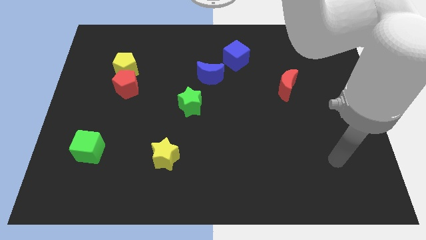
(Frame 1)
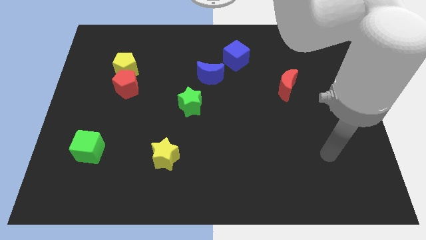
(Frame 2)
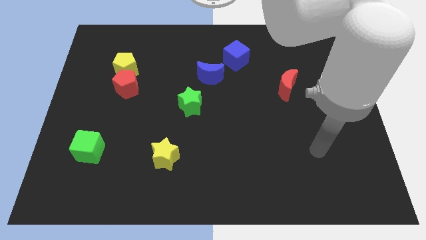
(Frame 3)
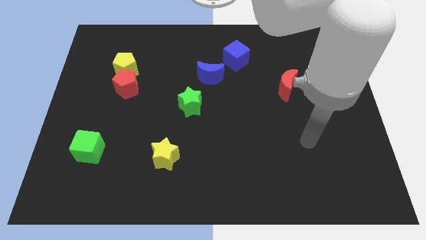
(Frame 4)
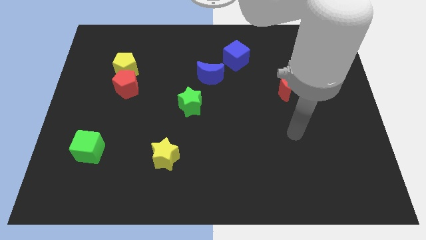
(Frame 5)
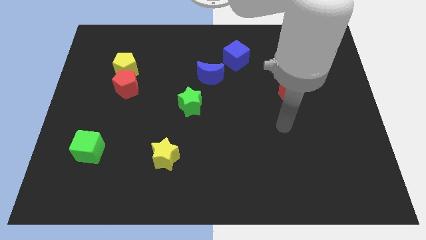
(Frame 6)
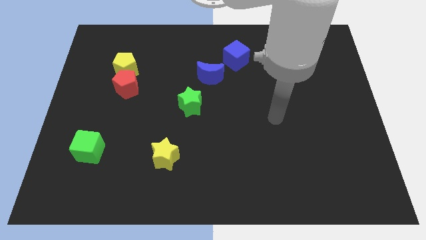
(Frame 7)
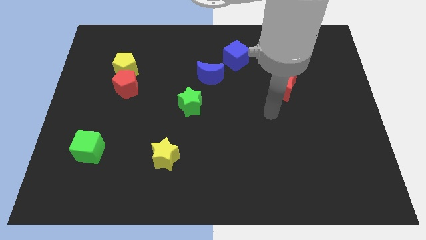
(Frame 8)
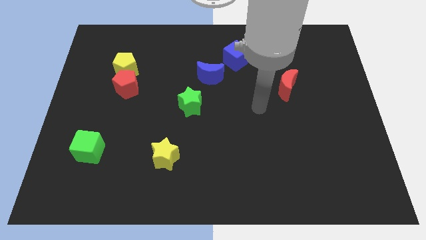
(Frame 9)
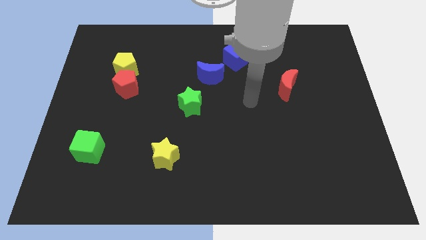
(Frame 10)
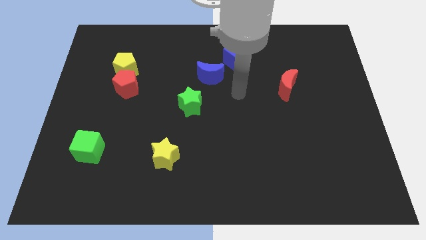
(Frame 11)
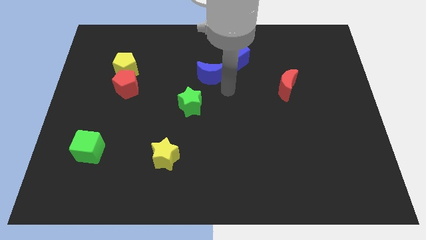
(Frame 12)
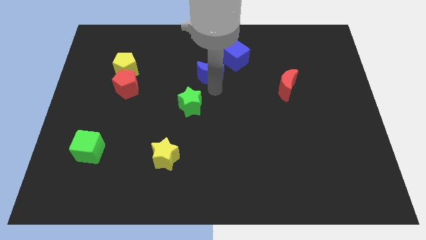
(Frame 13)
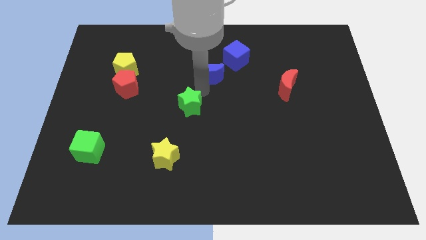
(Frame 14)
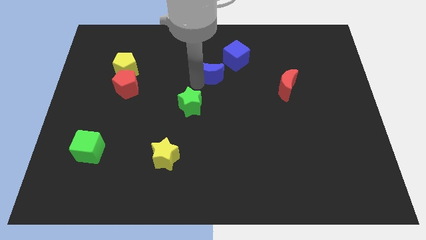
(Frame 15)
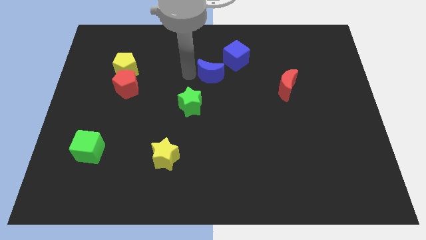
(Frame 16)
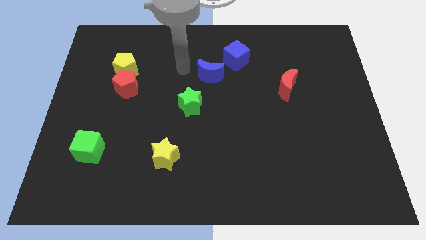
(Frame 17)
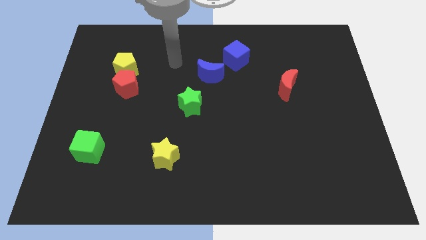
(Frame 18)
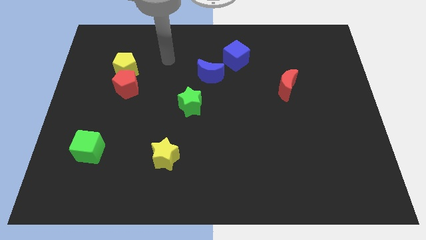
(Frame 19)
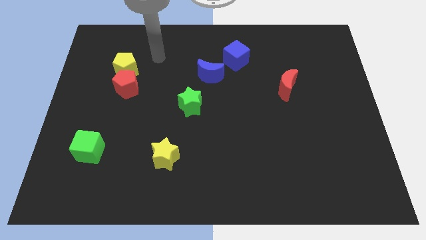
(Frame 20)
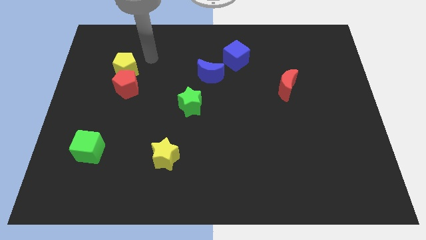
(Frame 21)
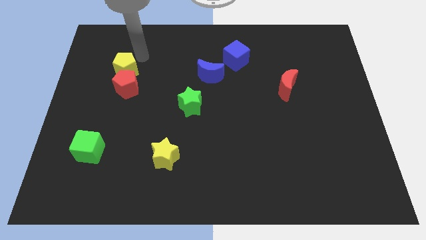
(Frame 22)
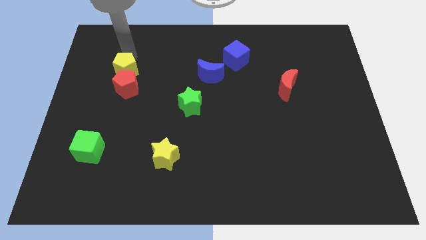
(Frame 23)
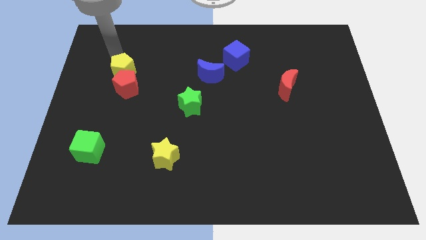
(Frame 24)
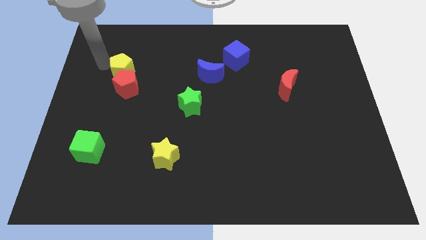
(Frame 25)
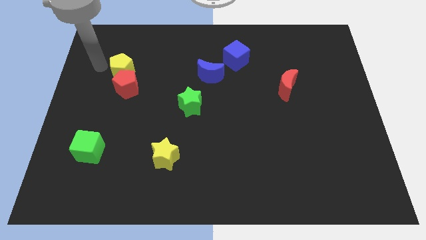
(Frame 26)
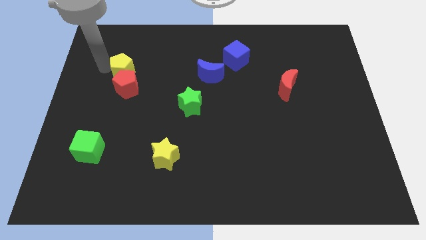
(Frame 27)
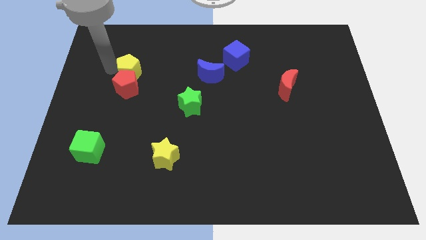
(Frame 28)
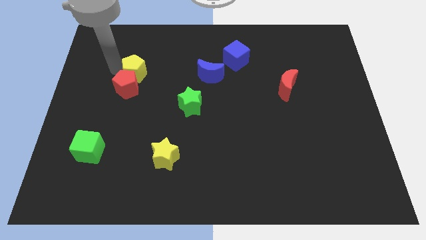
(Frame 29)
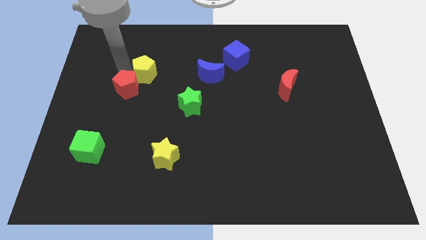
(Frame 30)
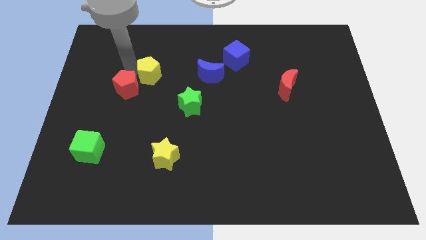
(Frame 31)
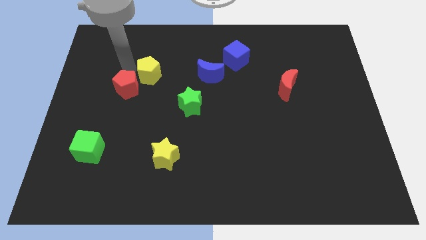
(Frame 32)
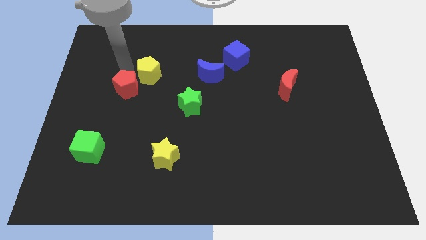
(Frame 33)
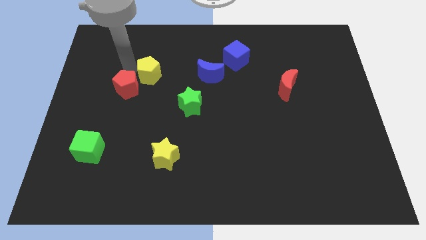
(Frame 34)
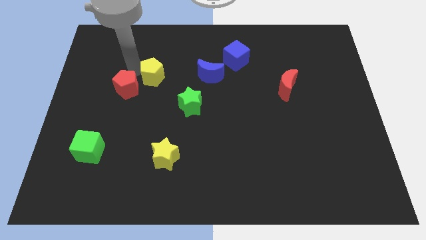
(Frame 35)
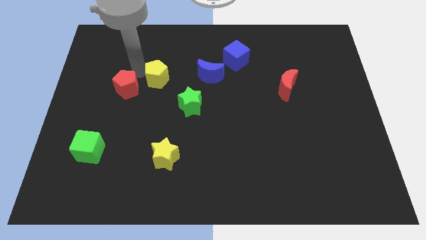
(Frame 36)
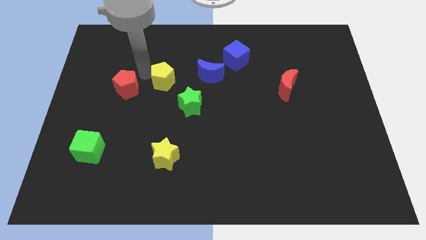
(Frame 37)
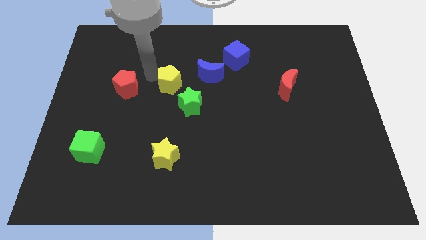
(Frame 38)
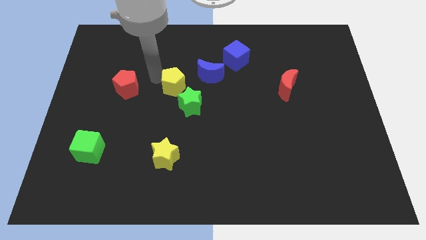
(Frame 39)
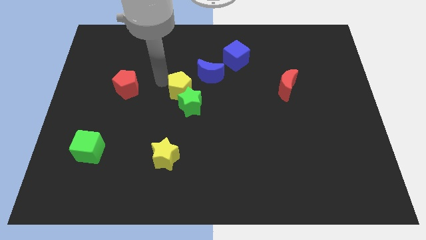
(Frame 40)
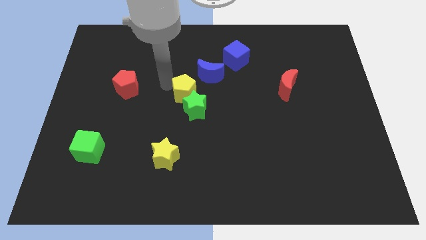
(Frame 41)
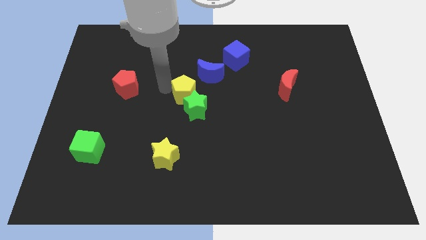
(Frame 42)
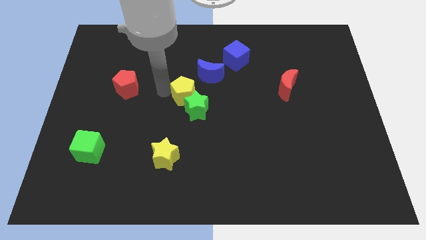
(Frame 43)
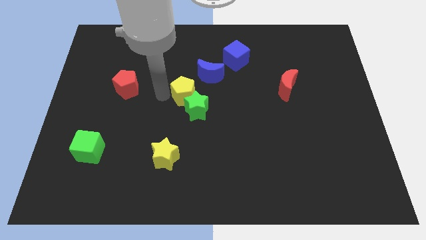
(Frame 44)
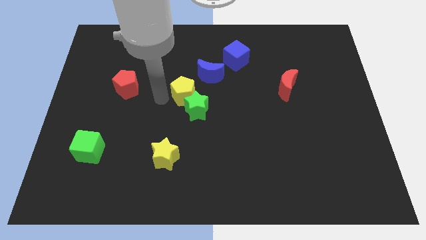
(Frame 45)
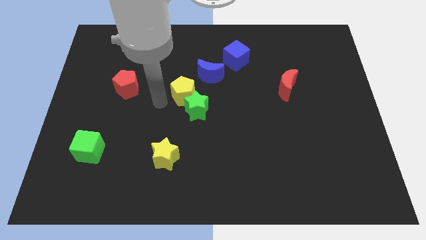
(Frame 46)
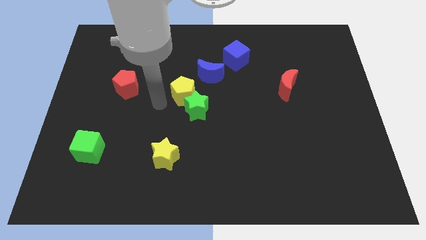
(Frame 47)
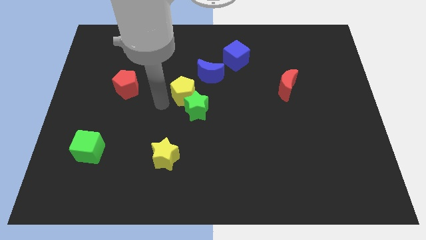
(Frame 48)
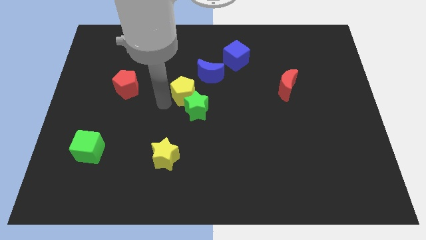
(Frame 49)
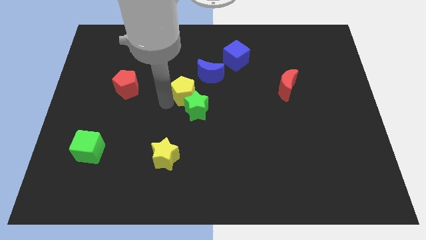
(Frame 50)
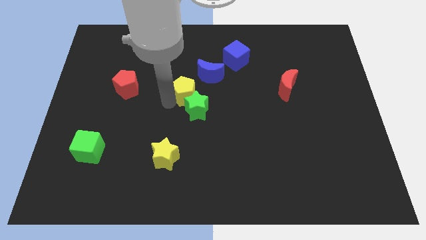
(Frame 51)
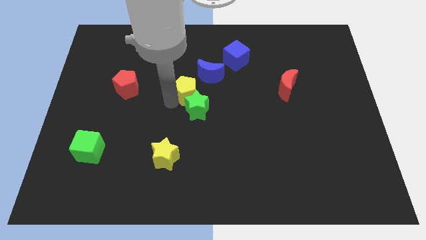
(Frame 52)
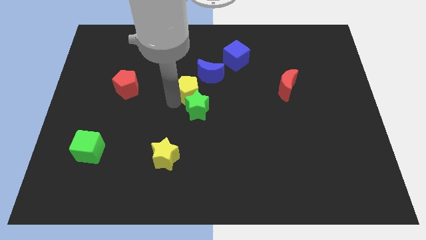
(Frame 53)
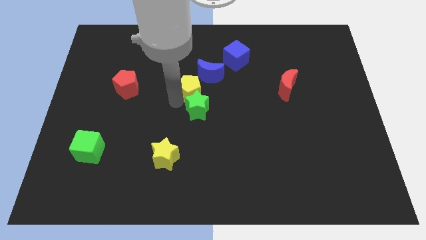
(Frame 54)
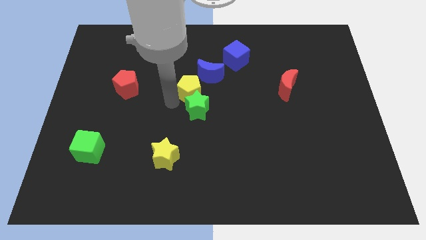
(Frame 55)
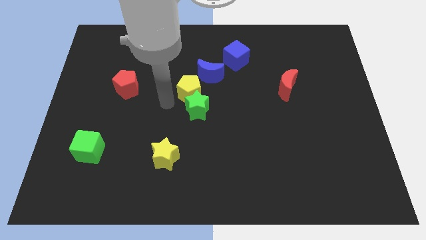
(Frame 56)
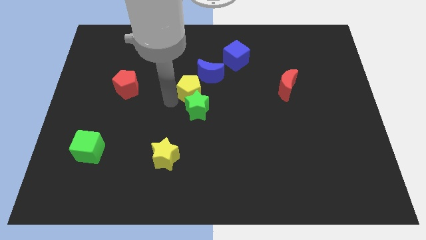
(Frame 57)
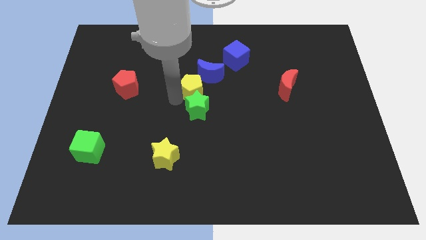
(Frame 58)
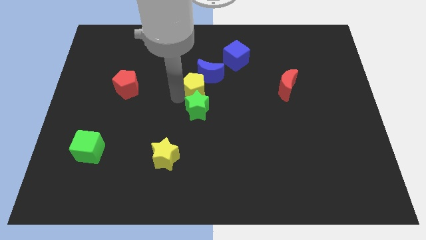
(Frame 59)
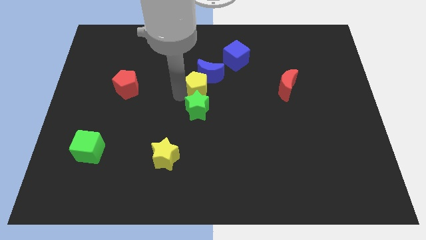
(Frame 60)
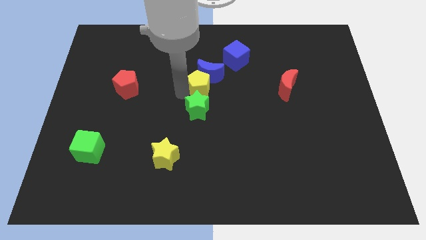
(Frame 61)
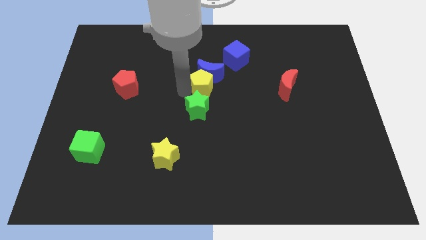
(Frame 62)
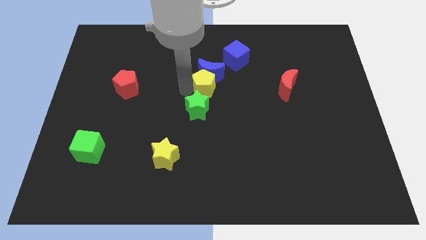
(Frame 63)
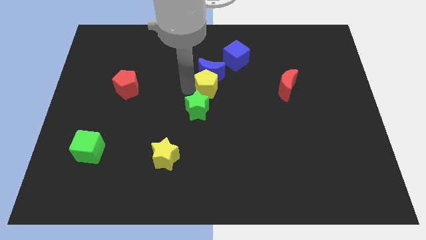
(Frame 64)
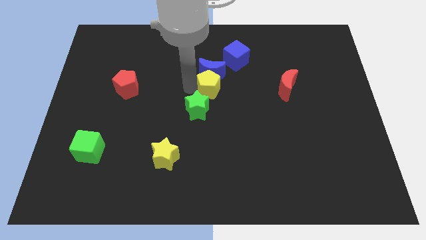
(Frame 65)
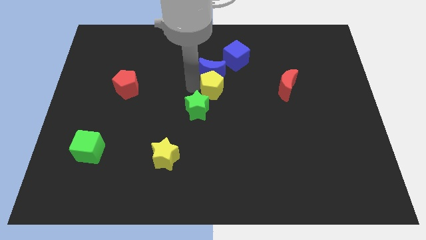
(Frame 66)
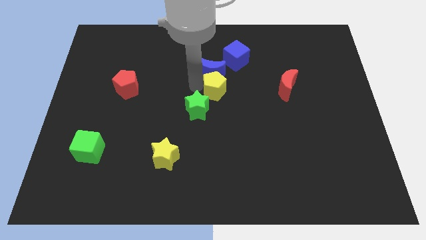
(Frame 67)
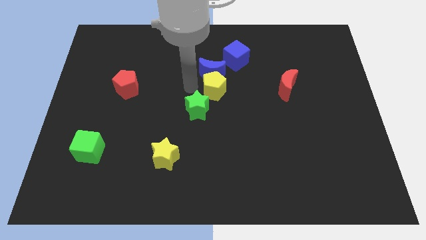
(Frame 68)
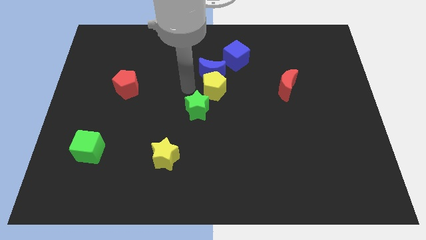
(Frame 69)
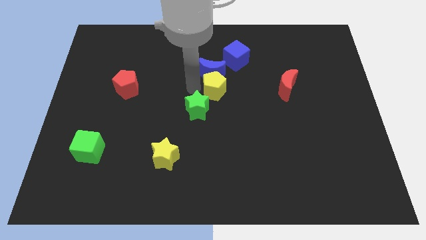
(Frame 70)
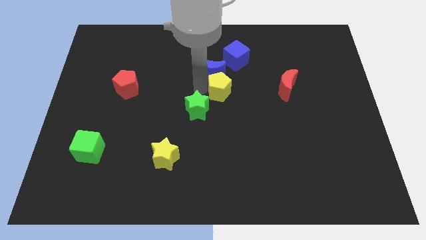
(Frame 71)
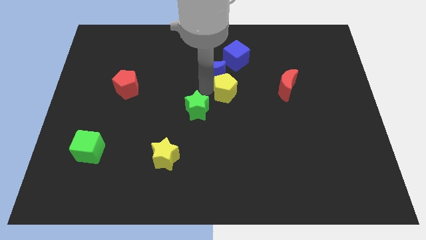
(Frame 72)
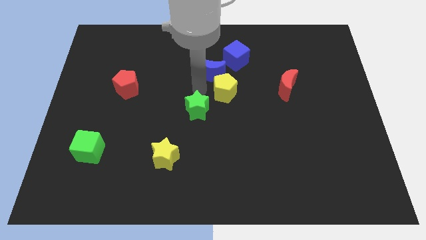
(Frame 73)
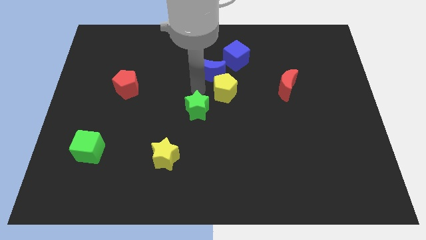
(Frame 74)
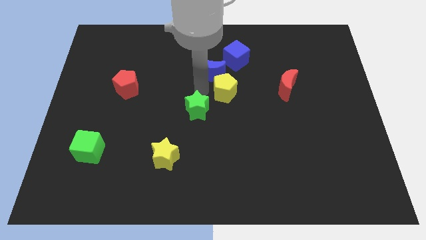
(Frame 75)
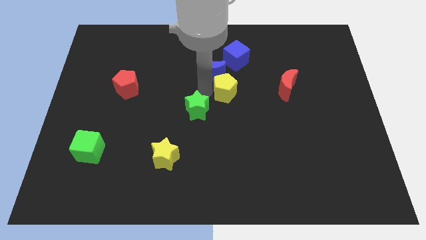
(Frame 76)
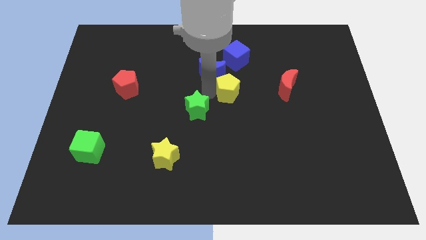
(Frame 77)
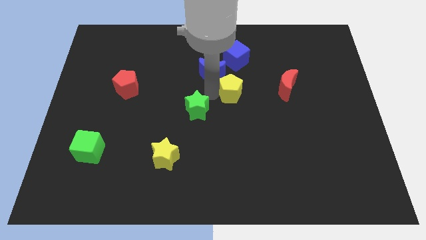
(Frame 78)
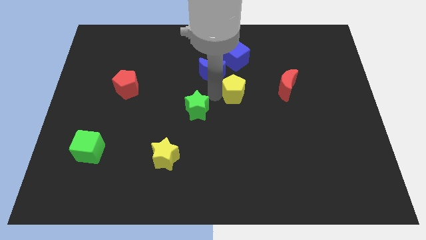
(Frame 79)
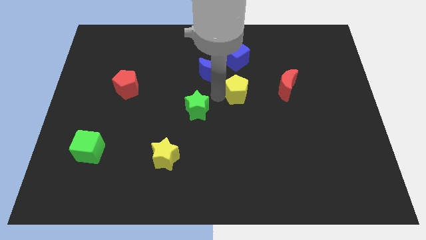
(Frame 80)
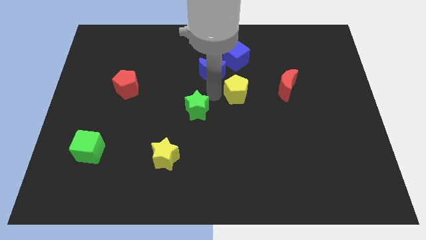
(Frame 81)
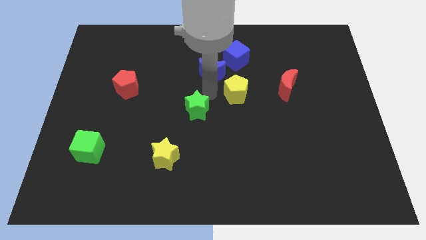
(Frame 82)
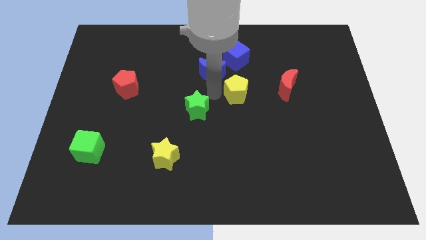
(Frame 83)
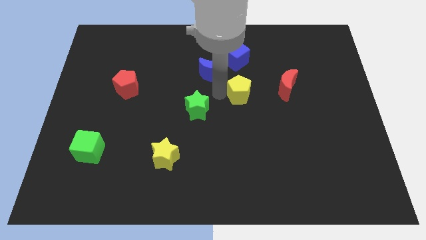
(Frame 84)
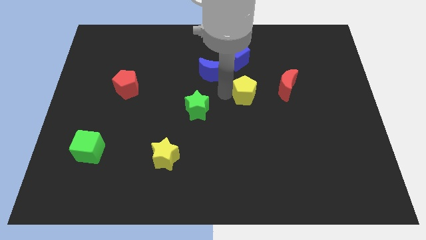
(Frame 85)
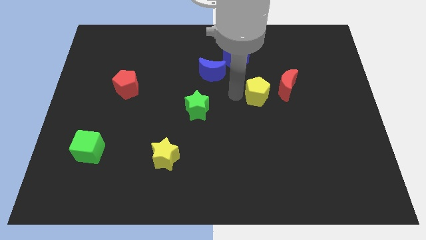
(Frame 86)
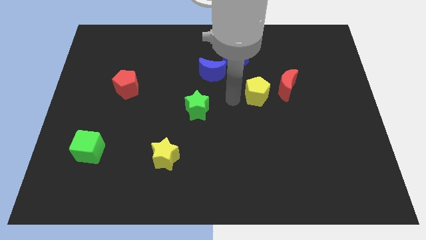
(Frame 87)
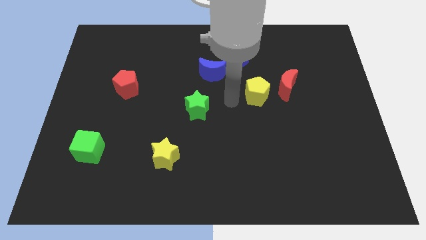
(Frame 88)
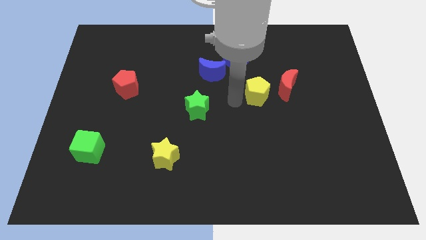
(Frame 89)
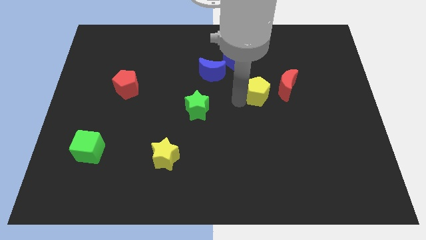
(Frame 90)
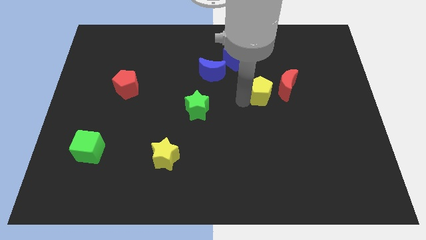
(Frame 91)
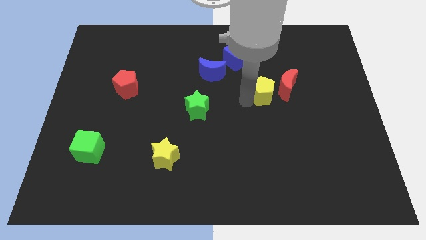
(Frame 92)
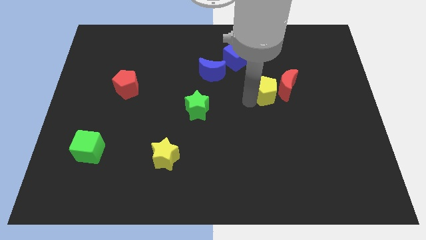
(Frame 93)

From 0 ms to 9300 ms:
push the yellow pentagon close to the red moon
